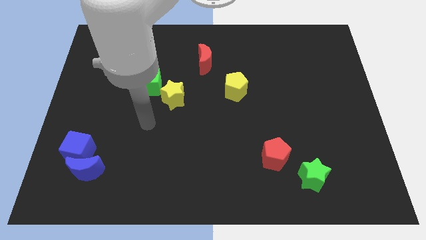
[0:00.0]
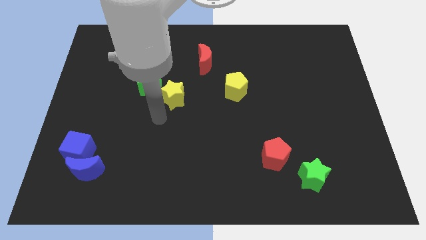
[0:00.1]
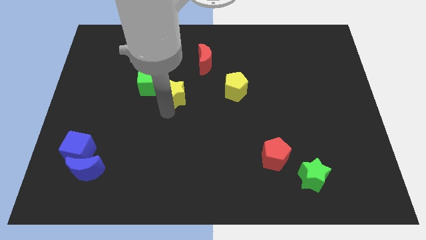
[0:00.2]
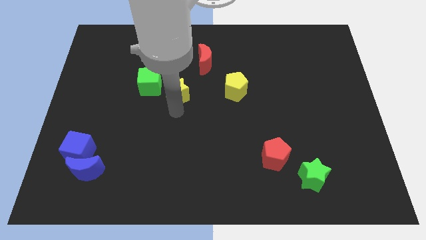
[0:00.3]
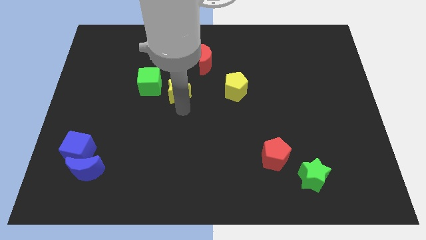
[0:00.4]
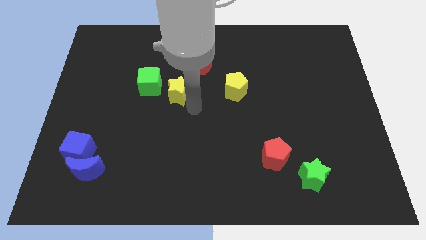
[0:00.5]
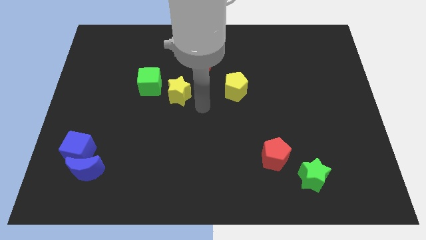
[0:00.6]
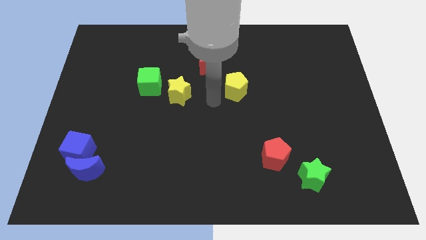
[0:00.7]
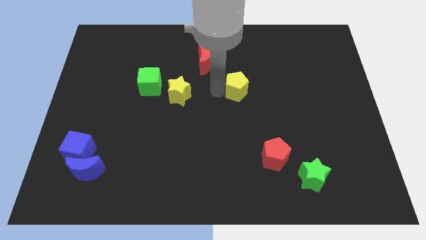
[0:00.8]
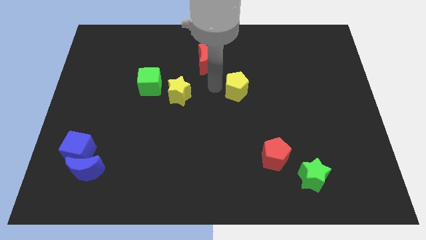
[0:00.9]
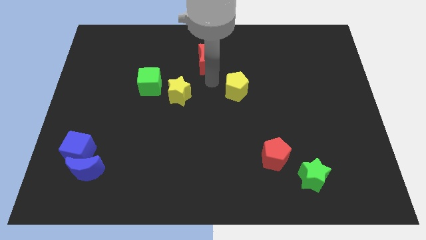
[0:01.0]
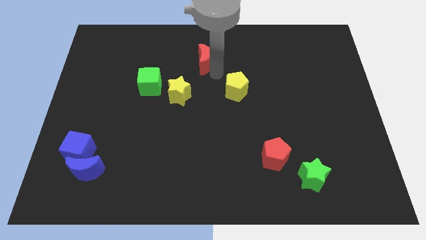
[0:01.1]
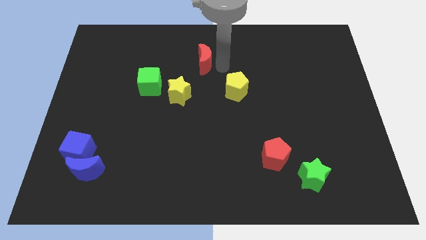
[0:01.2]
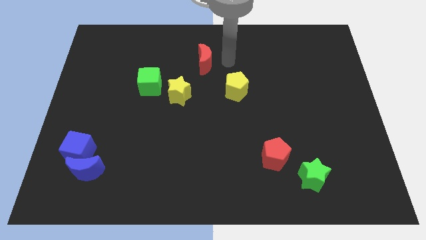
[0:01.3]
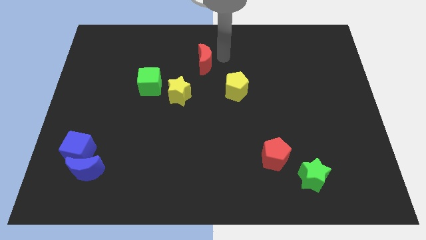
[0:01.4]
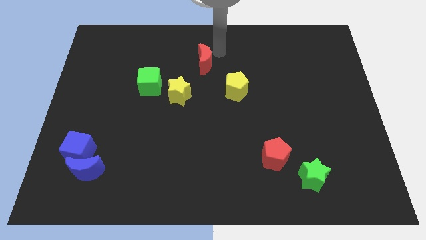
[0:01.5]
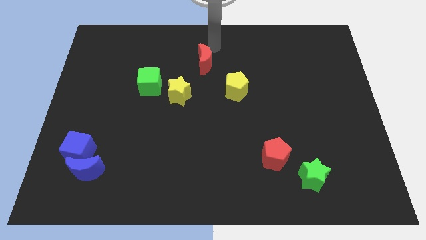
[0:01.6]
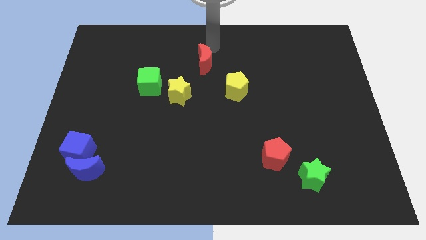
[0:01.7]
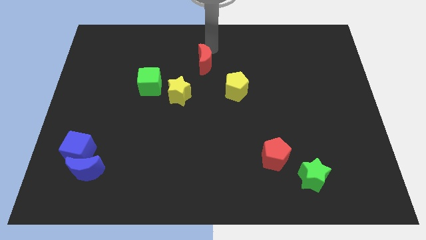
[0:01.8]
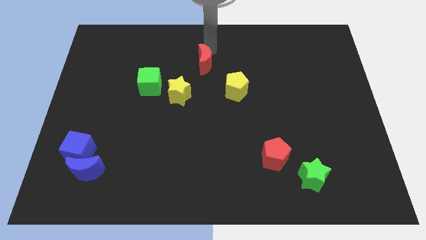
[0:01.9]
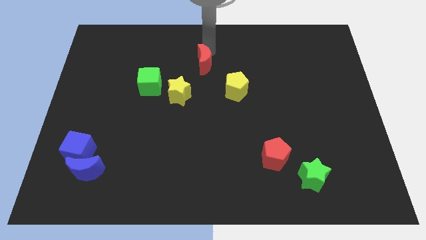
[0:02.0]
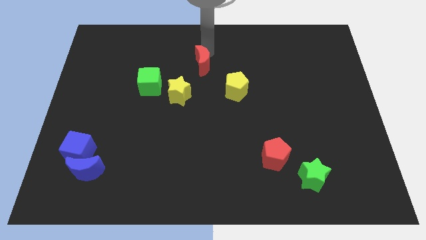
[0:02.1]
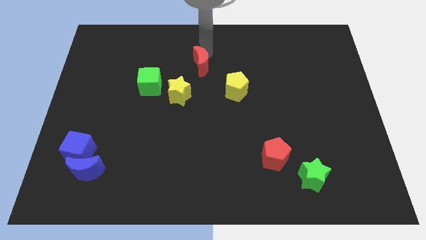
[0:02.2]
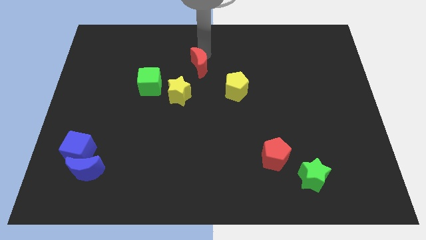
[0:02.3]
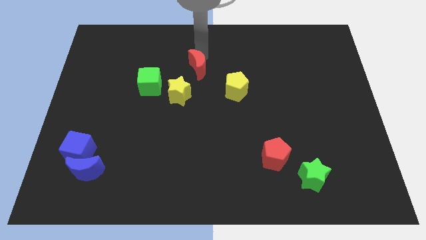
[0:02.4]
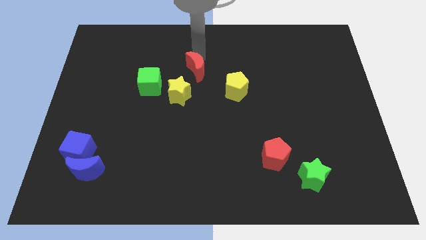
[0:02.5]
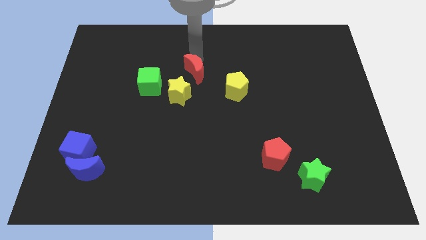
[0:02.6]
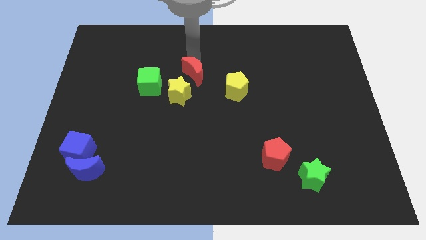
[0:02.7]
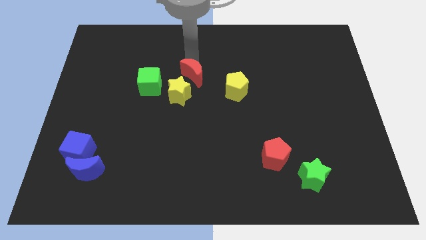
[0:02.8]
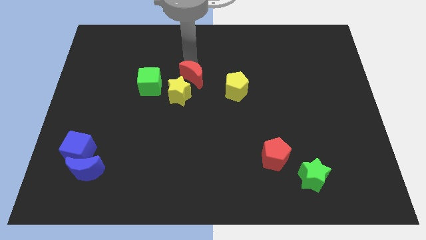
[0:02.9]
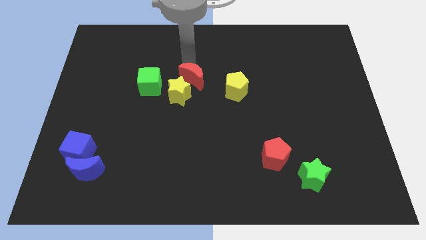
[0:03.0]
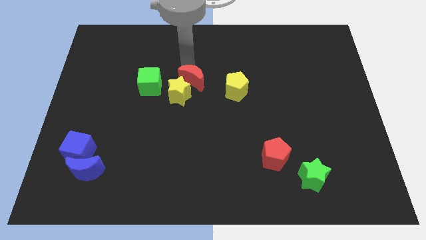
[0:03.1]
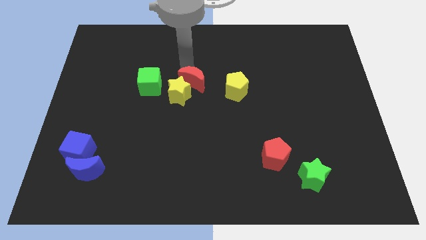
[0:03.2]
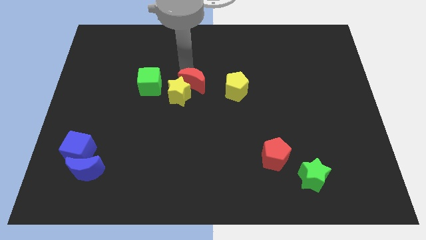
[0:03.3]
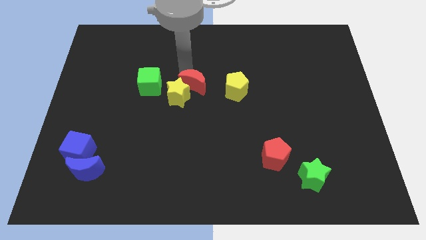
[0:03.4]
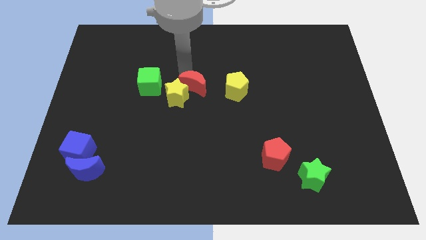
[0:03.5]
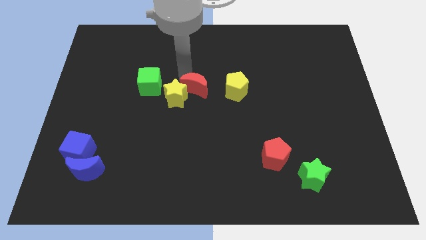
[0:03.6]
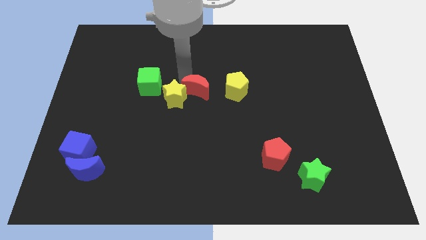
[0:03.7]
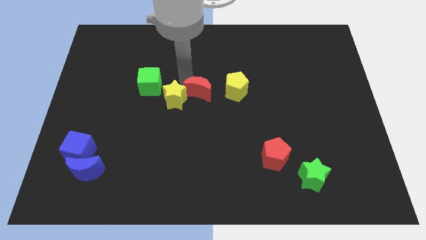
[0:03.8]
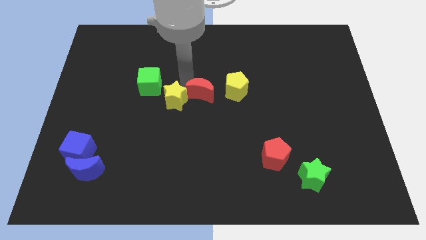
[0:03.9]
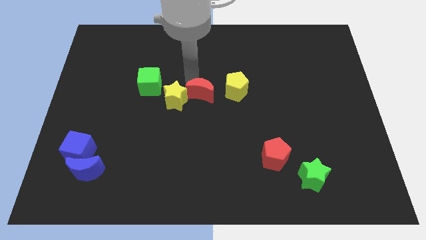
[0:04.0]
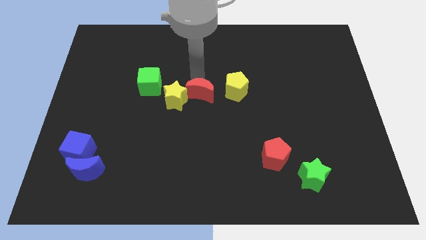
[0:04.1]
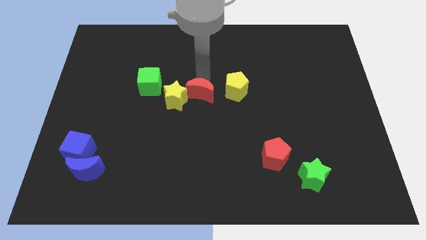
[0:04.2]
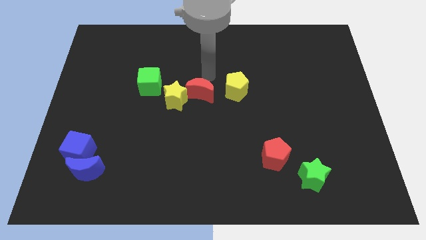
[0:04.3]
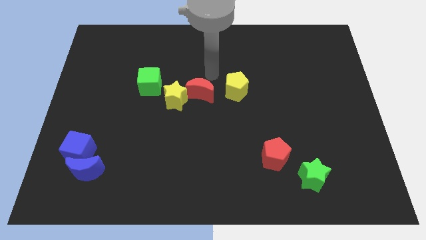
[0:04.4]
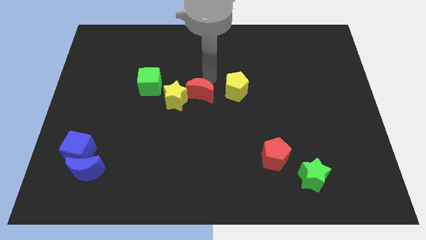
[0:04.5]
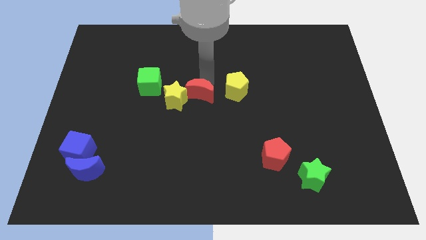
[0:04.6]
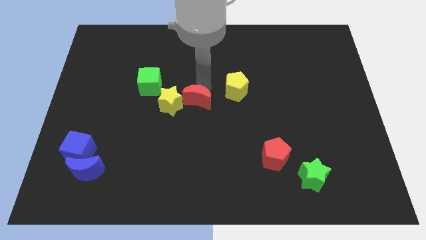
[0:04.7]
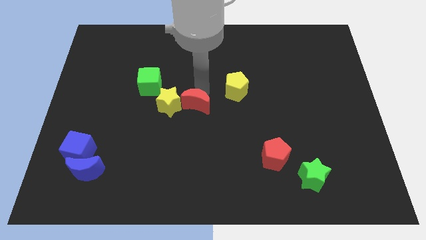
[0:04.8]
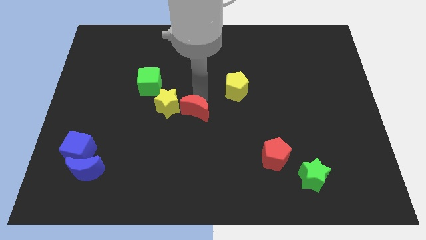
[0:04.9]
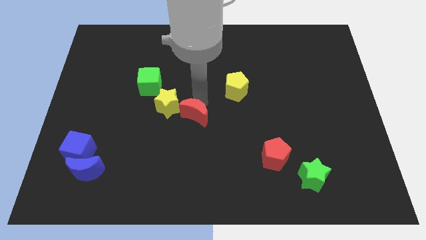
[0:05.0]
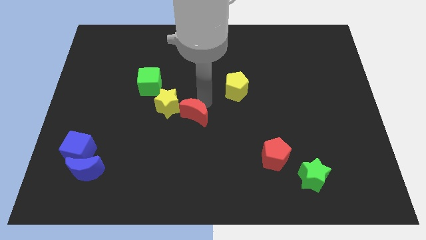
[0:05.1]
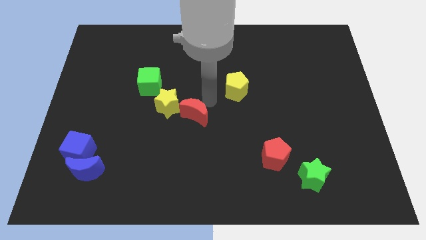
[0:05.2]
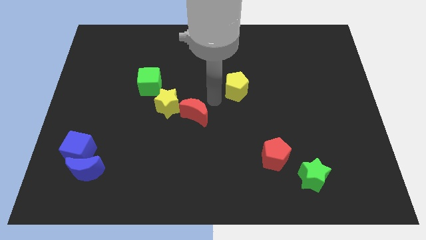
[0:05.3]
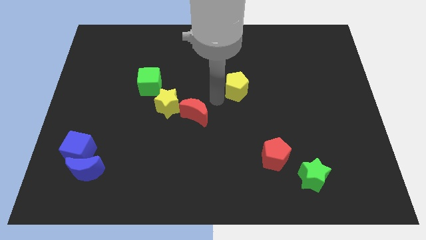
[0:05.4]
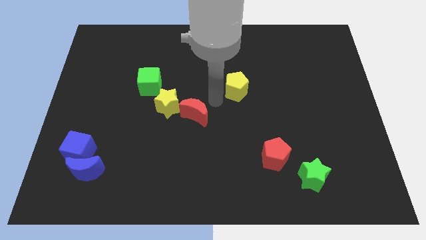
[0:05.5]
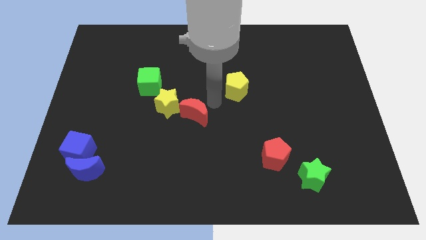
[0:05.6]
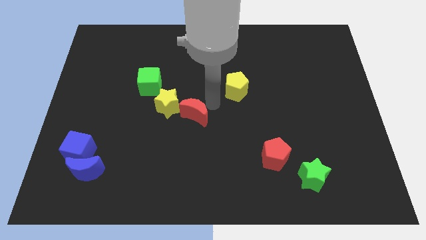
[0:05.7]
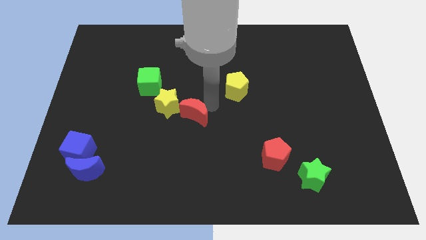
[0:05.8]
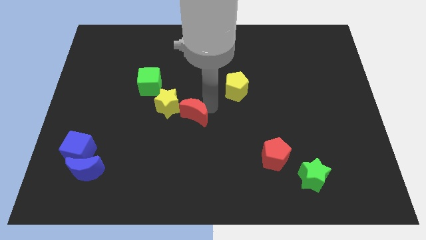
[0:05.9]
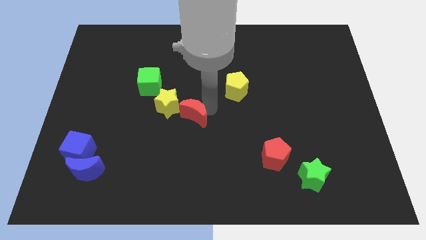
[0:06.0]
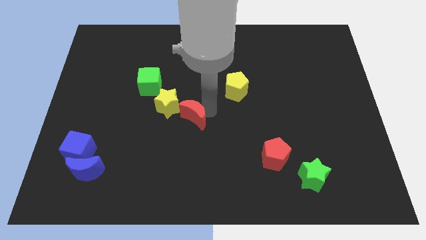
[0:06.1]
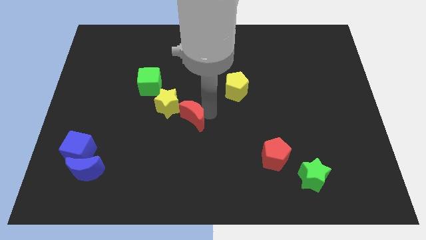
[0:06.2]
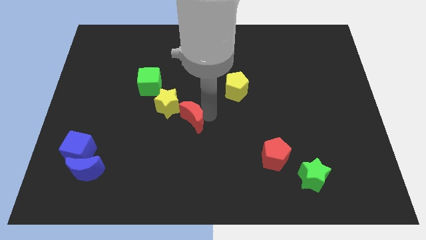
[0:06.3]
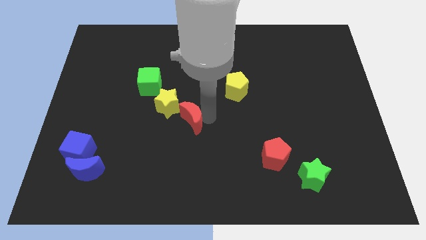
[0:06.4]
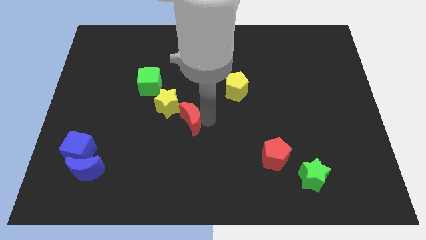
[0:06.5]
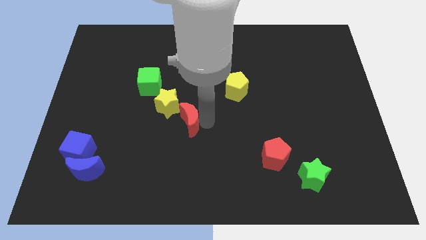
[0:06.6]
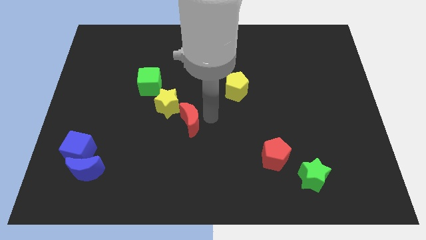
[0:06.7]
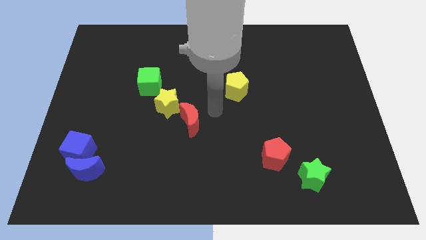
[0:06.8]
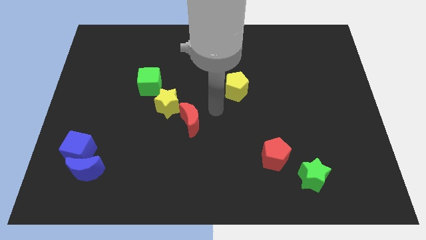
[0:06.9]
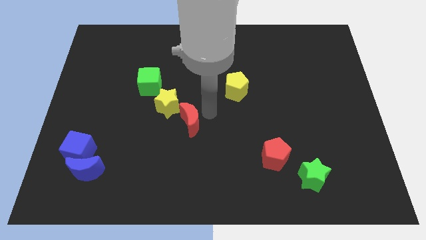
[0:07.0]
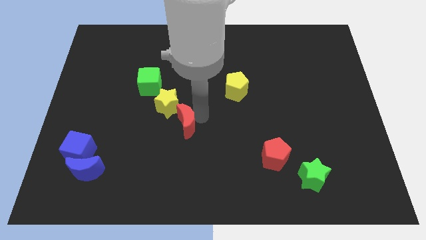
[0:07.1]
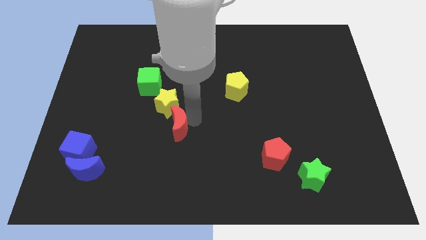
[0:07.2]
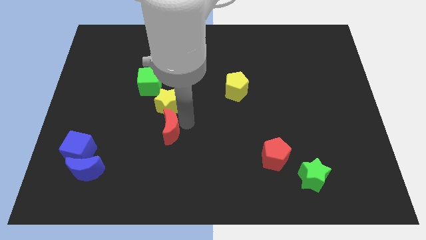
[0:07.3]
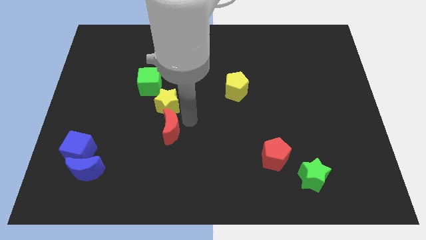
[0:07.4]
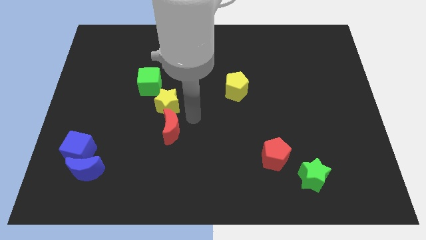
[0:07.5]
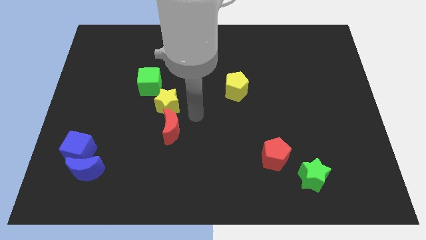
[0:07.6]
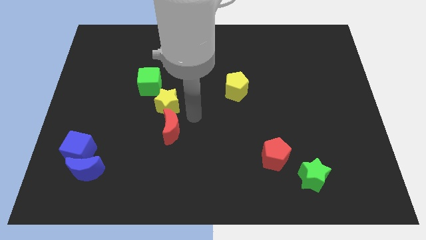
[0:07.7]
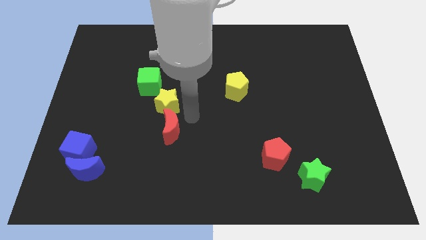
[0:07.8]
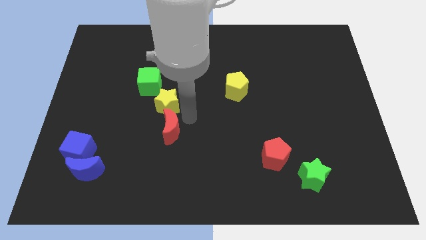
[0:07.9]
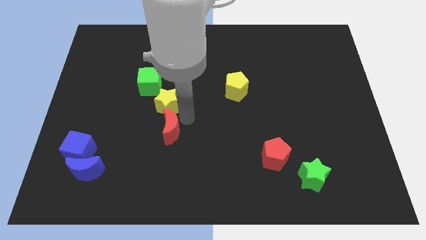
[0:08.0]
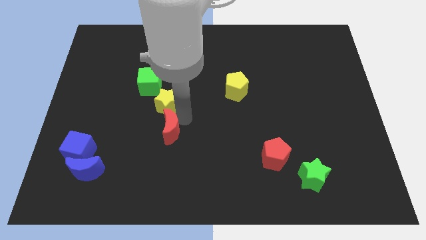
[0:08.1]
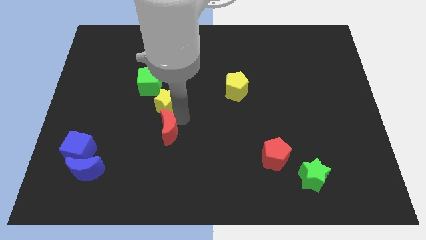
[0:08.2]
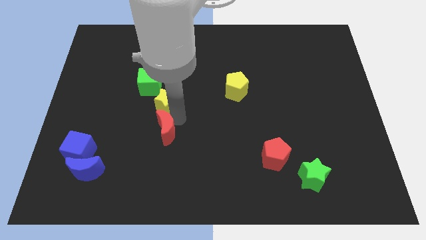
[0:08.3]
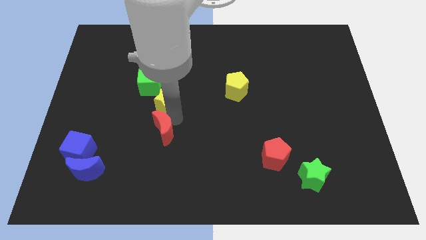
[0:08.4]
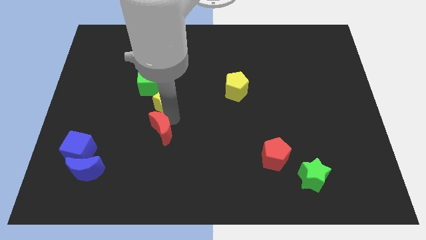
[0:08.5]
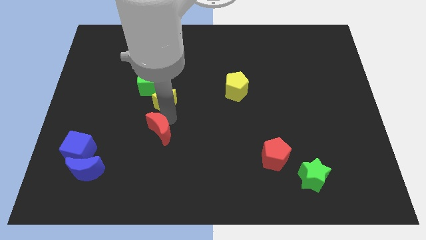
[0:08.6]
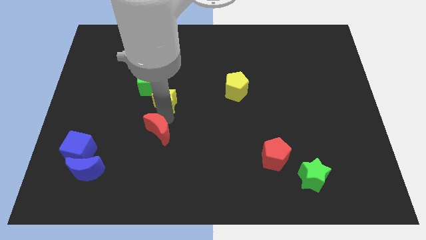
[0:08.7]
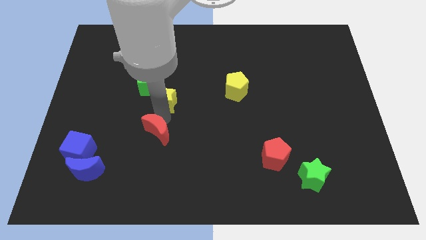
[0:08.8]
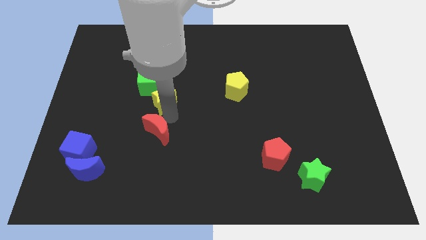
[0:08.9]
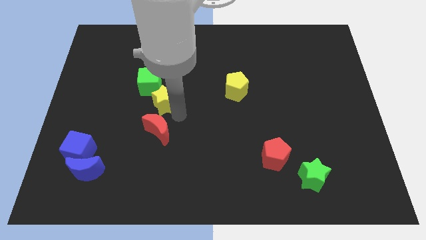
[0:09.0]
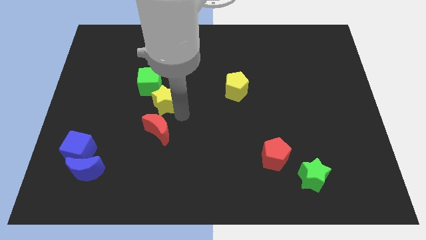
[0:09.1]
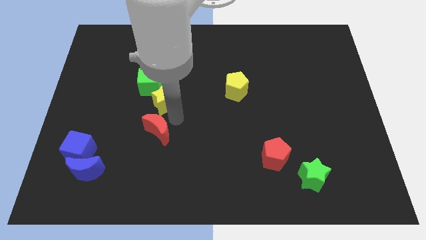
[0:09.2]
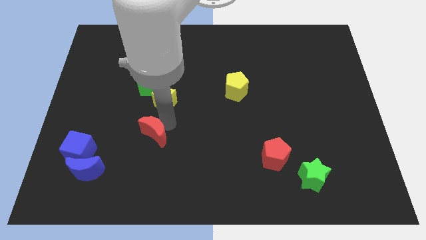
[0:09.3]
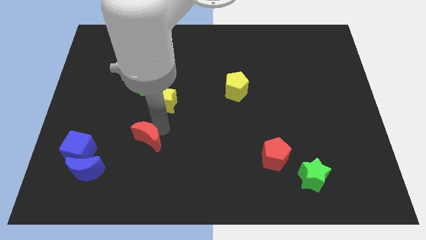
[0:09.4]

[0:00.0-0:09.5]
push the red moon right of the blue cube
